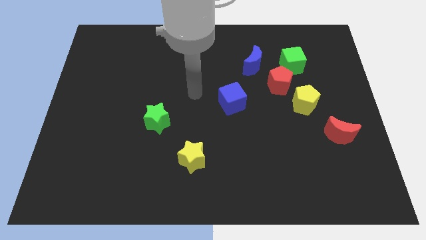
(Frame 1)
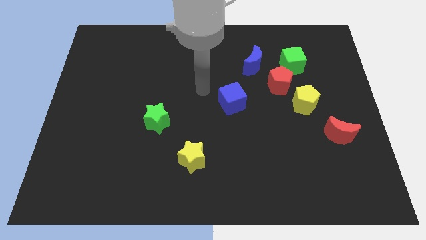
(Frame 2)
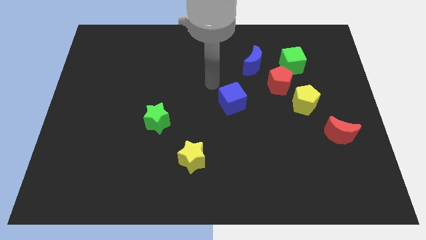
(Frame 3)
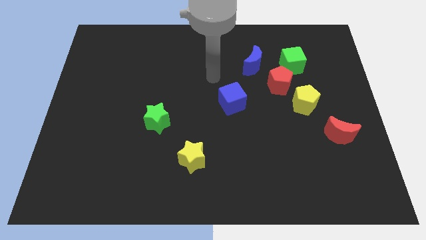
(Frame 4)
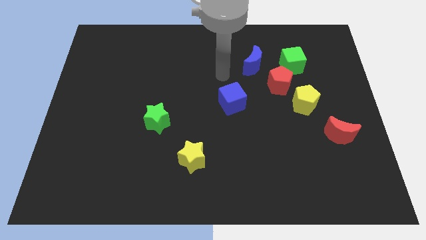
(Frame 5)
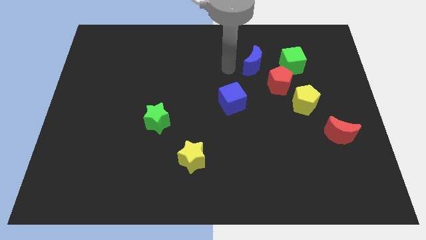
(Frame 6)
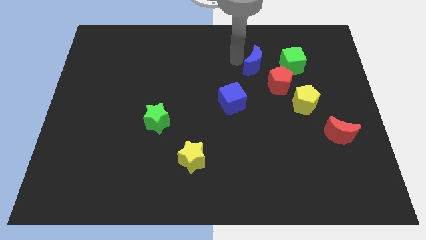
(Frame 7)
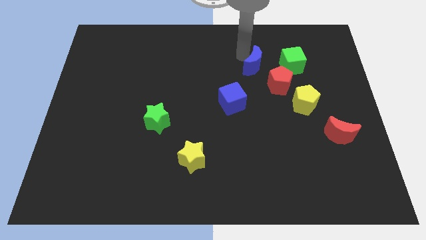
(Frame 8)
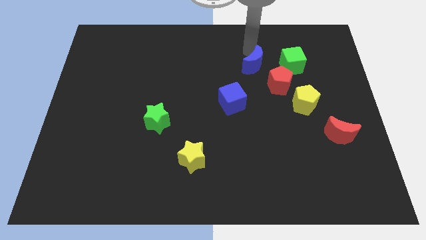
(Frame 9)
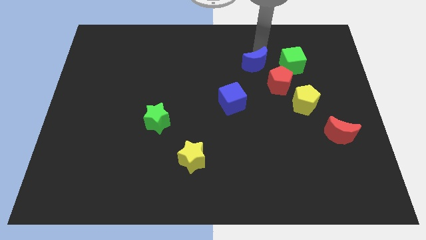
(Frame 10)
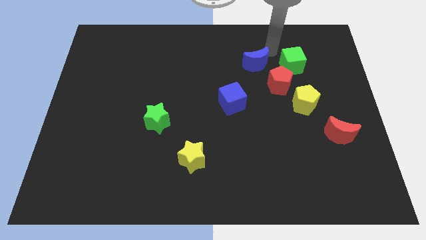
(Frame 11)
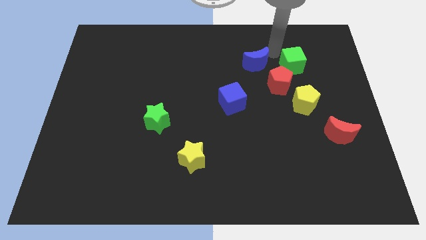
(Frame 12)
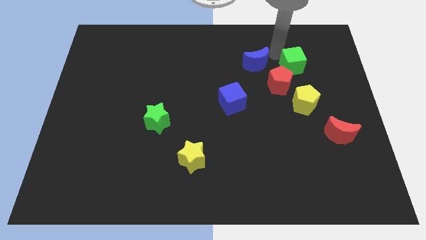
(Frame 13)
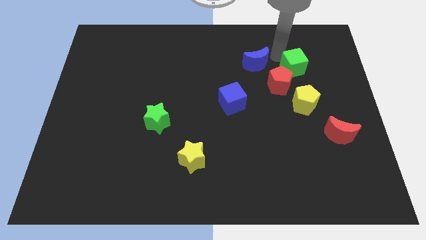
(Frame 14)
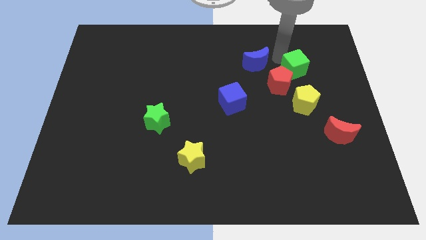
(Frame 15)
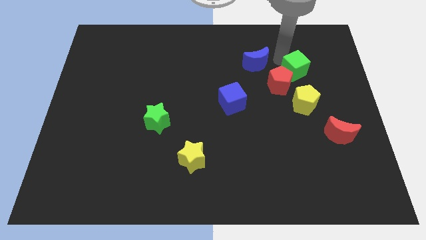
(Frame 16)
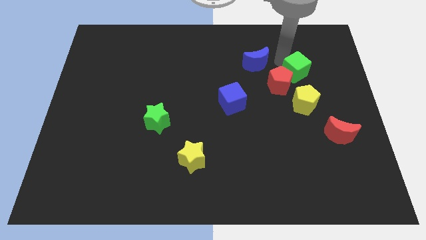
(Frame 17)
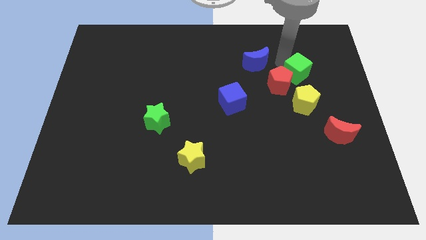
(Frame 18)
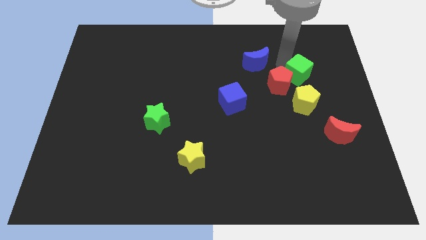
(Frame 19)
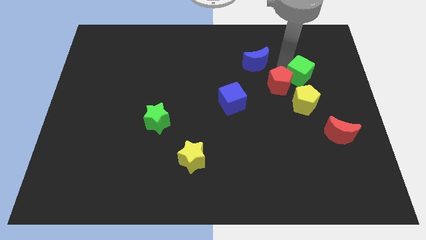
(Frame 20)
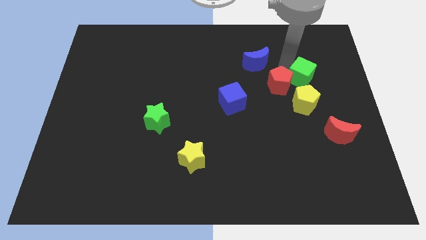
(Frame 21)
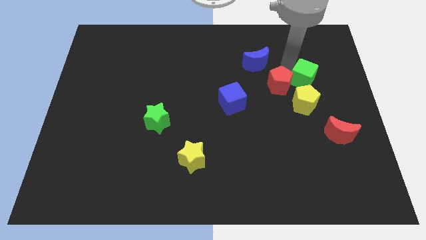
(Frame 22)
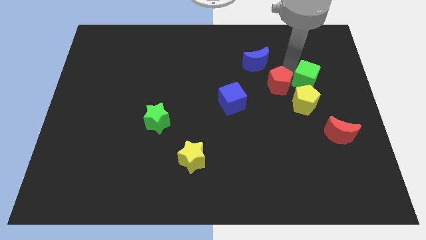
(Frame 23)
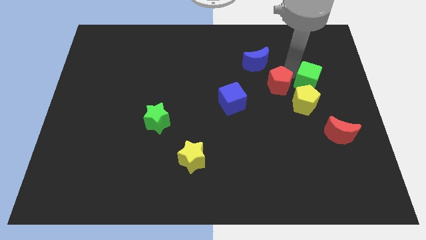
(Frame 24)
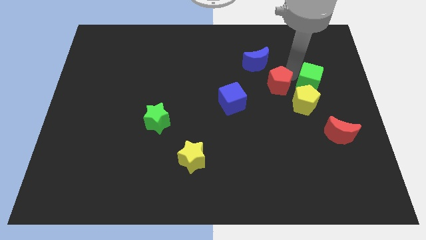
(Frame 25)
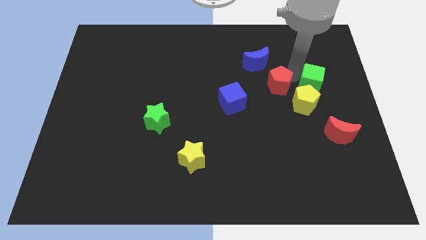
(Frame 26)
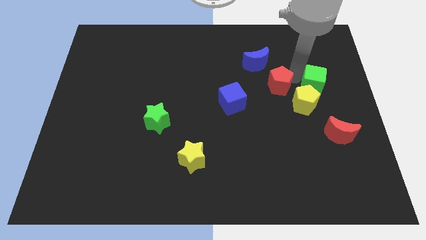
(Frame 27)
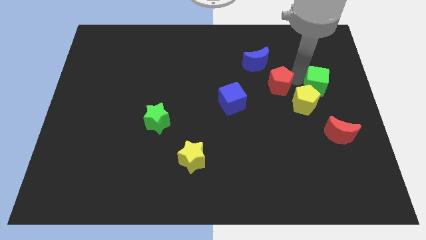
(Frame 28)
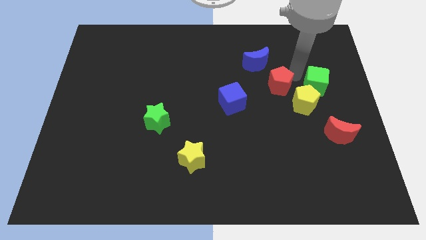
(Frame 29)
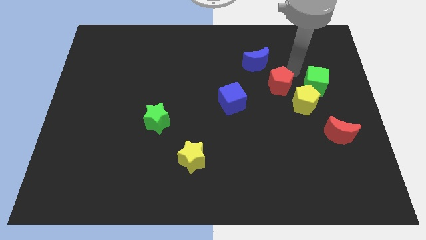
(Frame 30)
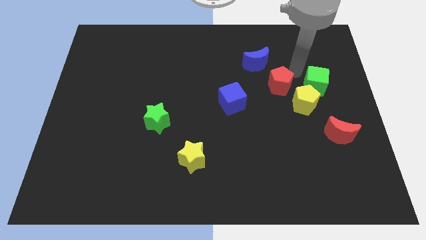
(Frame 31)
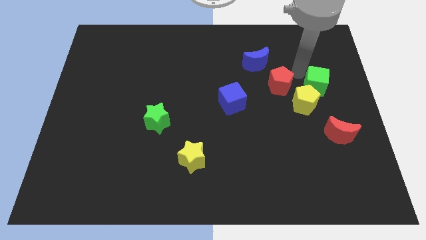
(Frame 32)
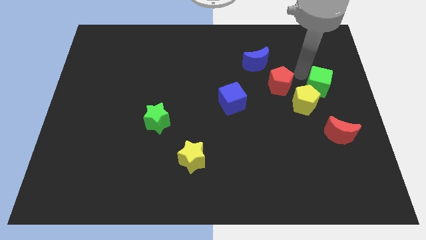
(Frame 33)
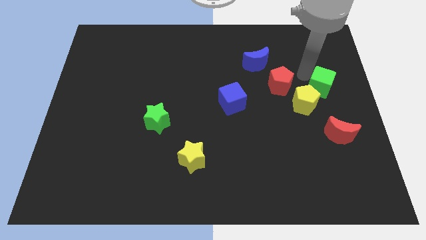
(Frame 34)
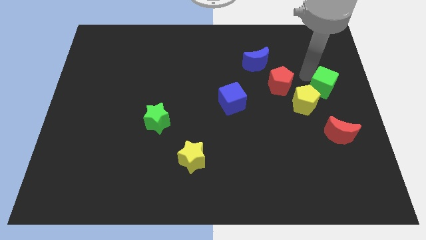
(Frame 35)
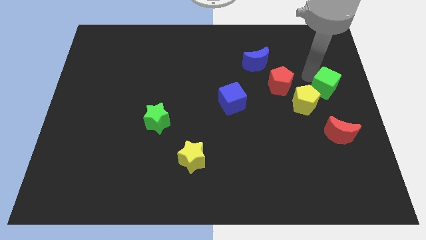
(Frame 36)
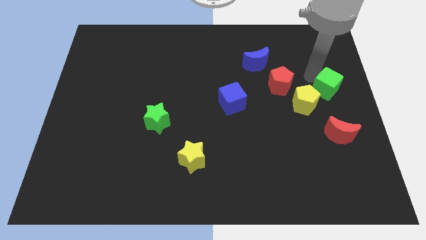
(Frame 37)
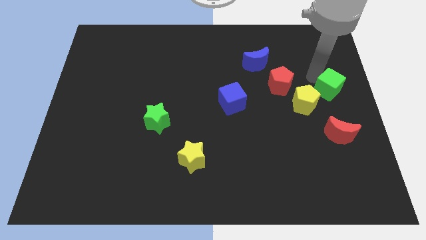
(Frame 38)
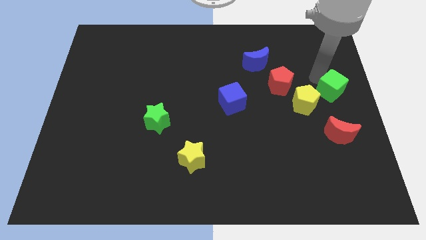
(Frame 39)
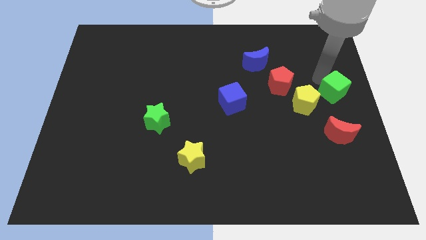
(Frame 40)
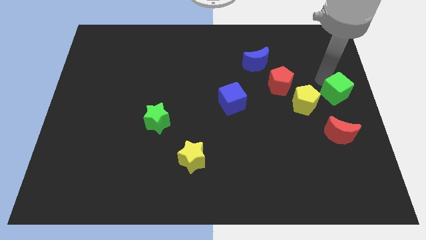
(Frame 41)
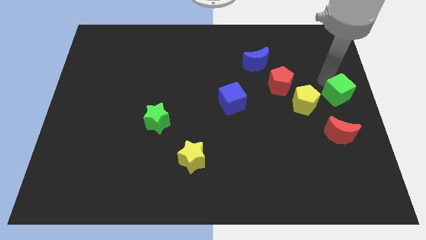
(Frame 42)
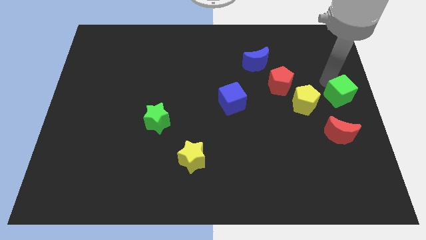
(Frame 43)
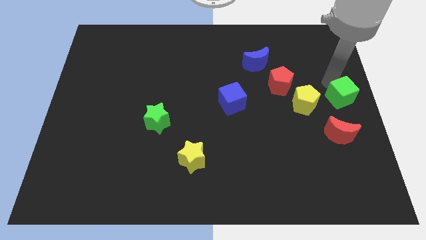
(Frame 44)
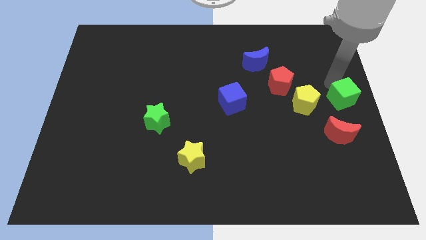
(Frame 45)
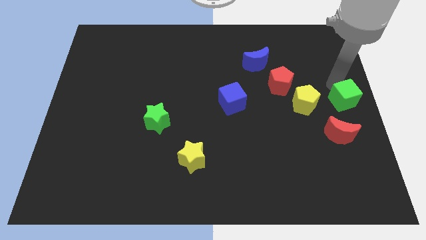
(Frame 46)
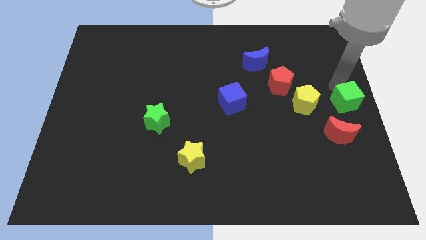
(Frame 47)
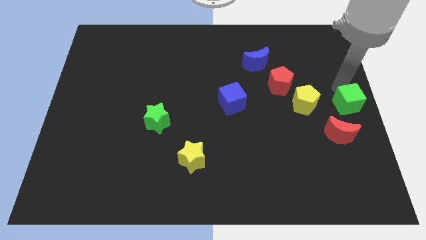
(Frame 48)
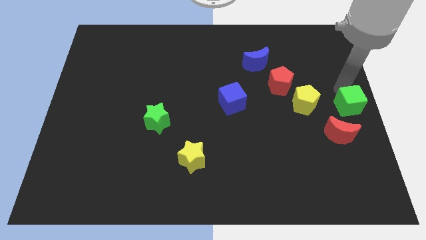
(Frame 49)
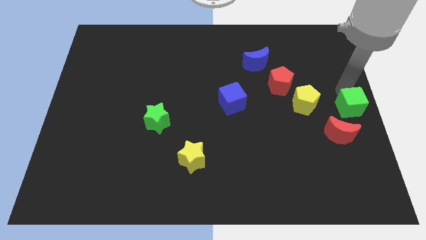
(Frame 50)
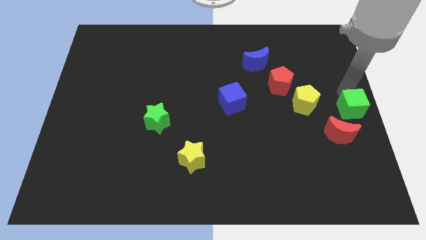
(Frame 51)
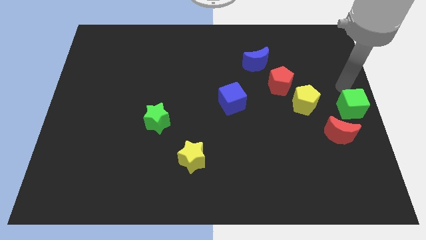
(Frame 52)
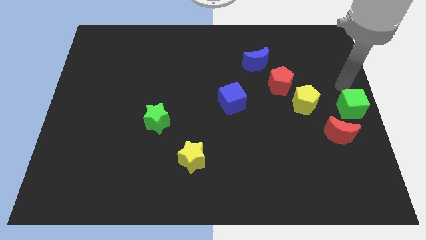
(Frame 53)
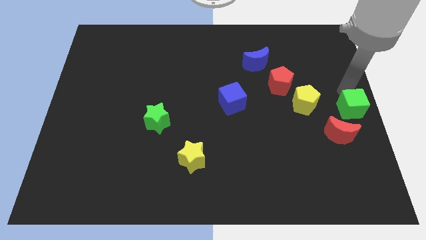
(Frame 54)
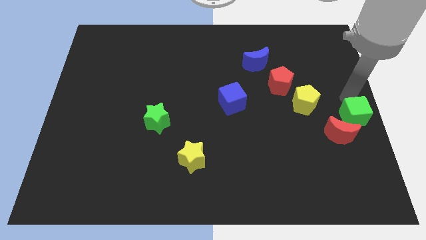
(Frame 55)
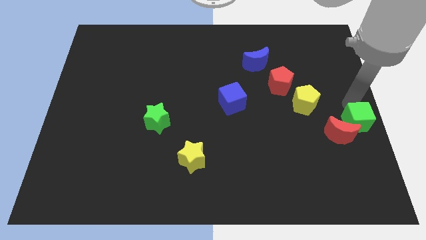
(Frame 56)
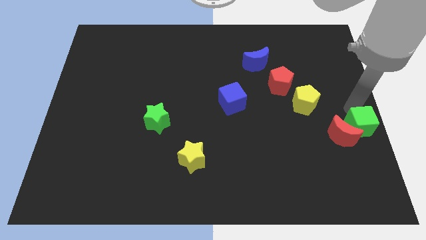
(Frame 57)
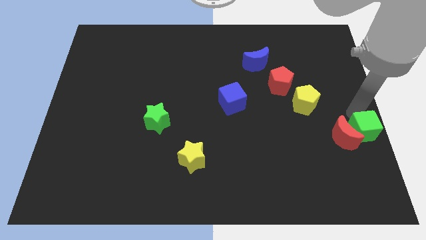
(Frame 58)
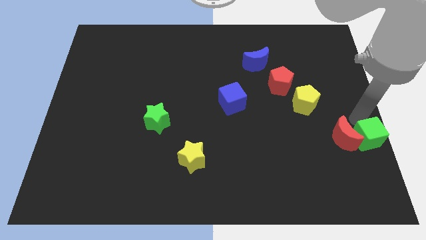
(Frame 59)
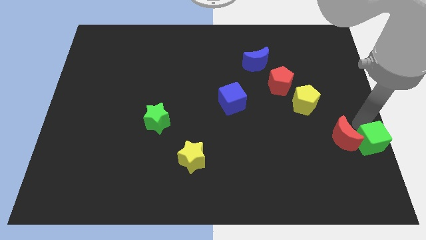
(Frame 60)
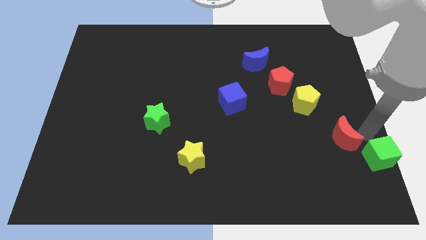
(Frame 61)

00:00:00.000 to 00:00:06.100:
move the green cube to the bottom right of the board
